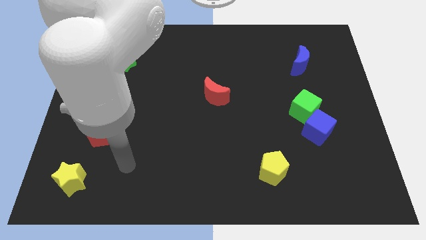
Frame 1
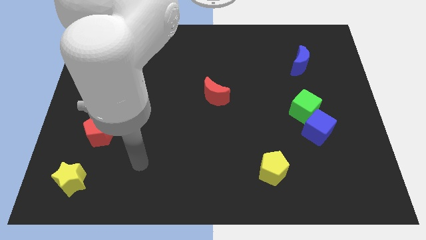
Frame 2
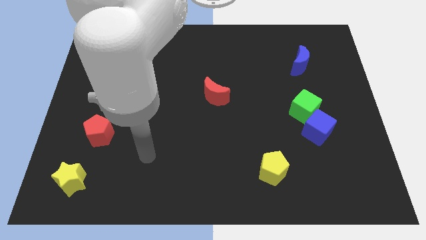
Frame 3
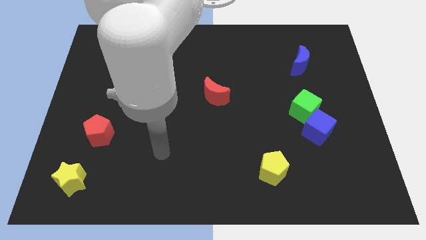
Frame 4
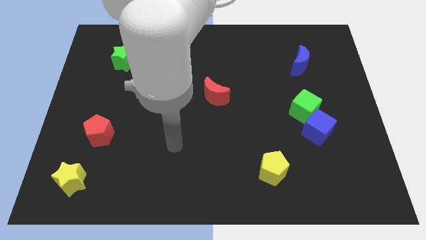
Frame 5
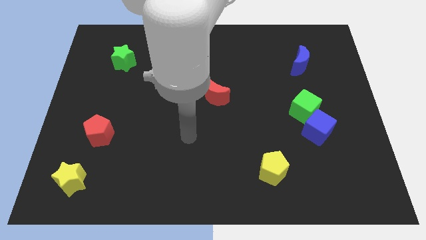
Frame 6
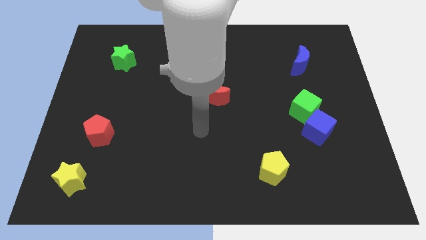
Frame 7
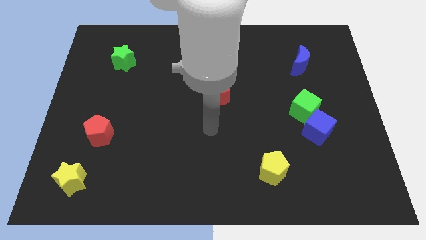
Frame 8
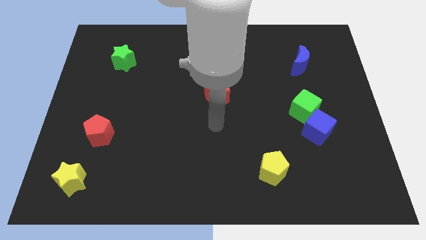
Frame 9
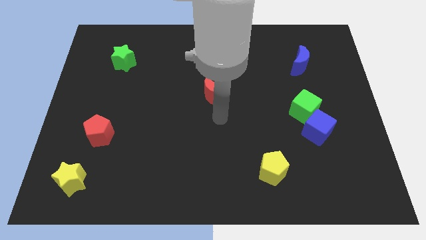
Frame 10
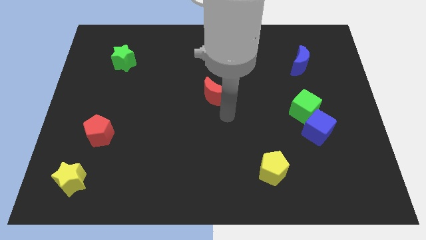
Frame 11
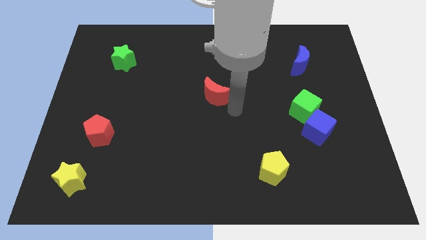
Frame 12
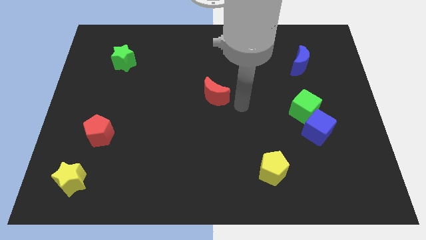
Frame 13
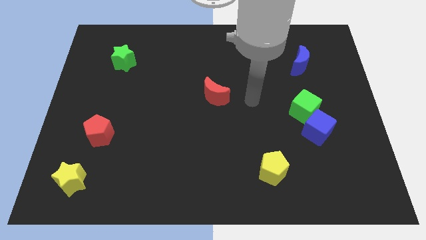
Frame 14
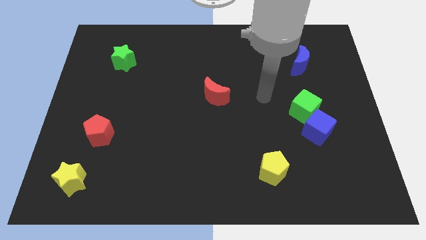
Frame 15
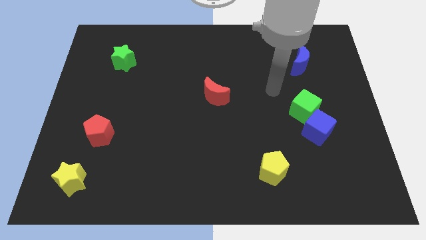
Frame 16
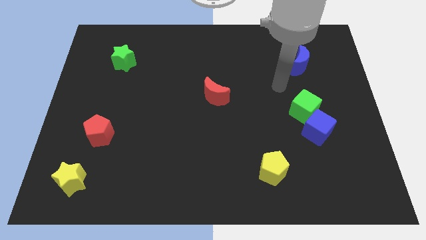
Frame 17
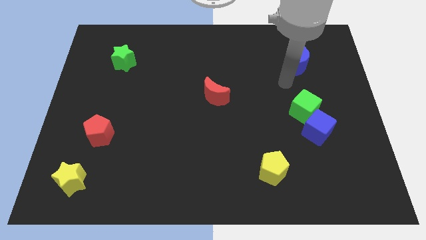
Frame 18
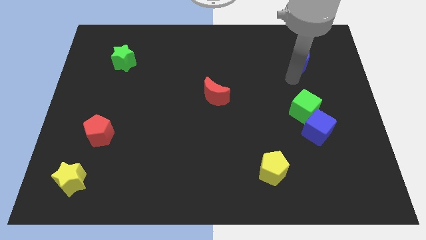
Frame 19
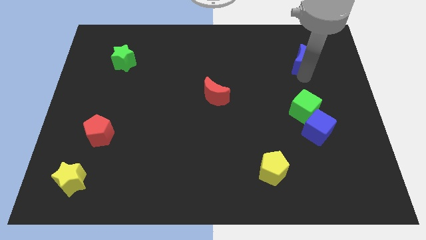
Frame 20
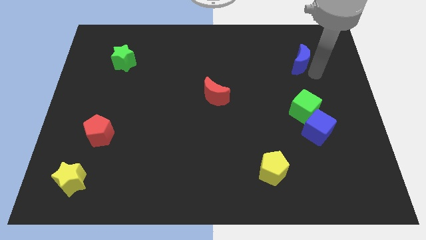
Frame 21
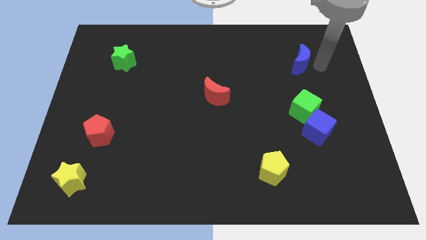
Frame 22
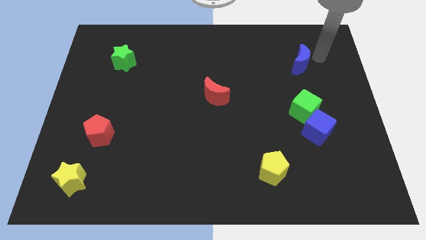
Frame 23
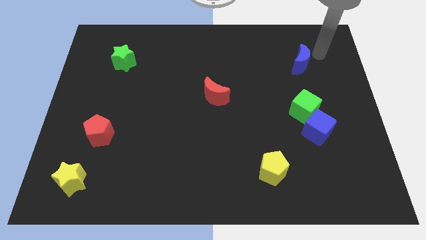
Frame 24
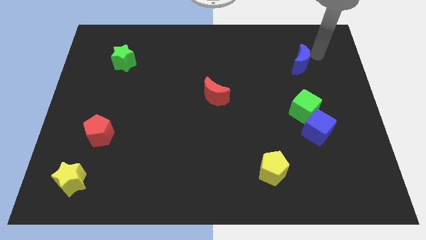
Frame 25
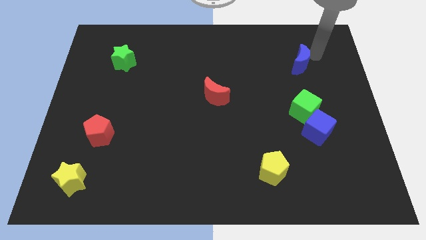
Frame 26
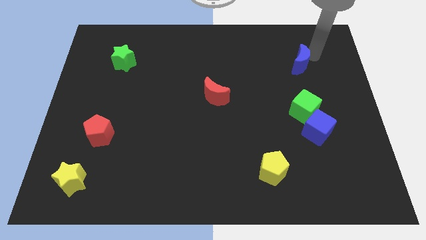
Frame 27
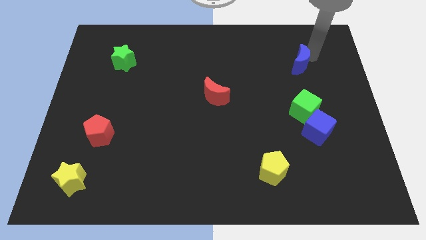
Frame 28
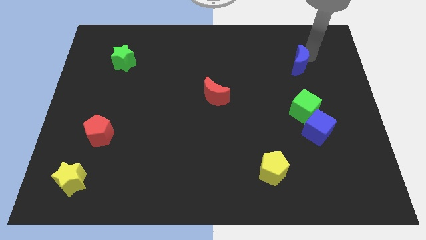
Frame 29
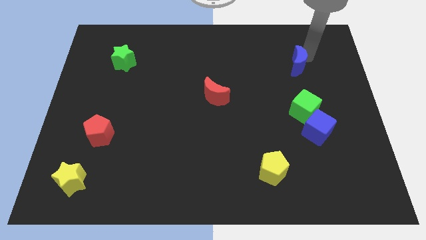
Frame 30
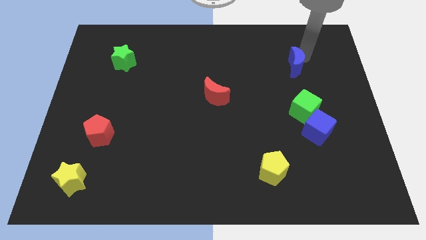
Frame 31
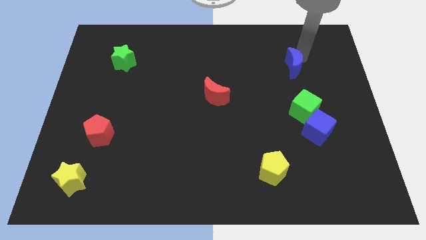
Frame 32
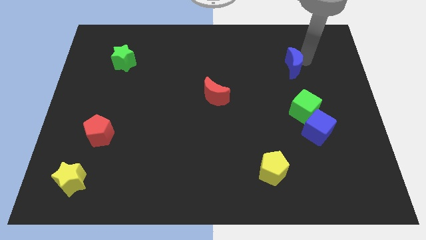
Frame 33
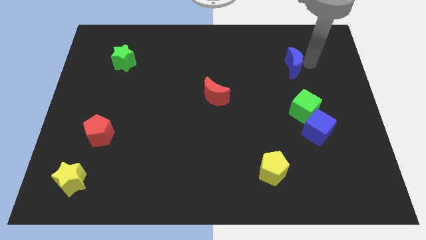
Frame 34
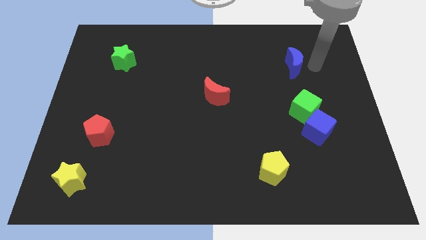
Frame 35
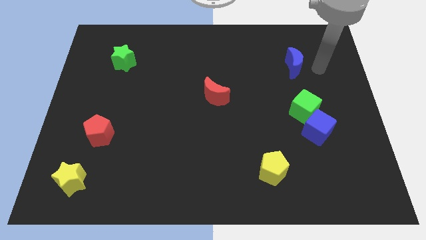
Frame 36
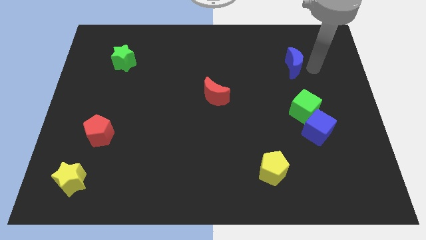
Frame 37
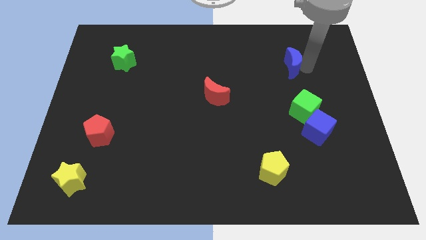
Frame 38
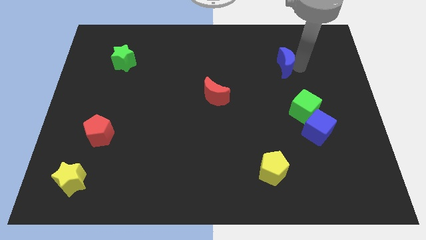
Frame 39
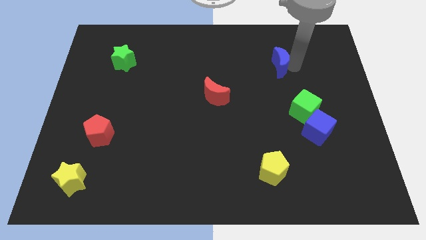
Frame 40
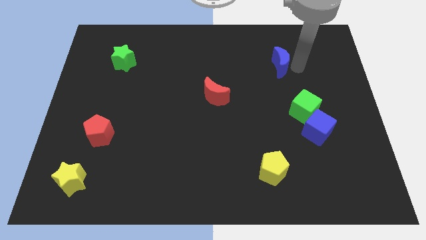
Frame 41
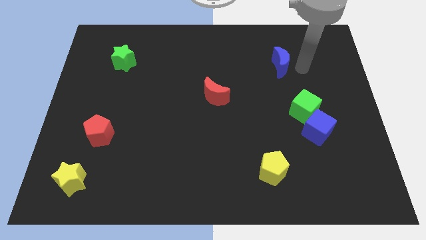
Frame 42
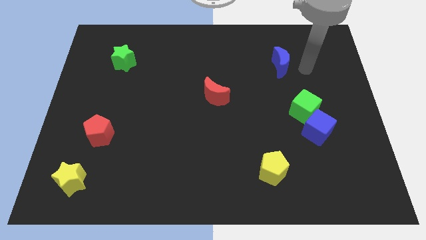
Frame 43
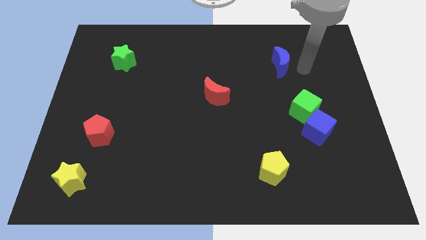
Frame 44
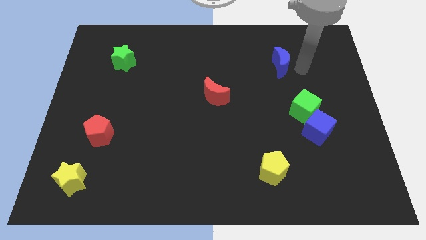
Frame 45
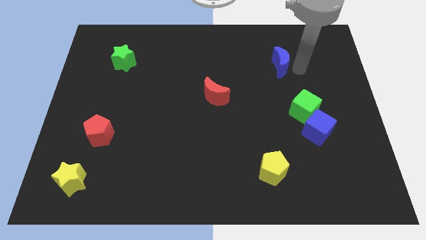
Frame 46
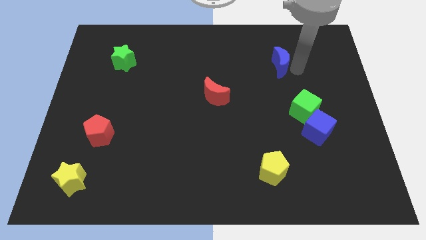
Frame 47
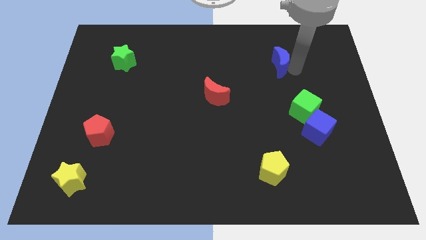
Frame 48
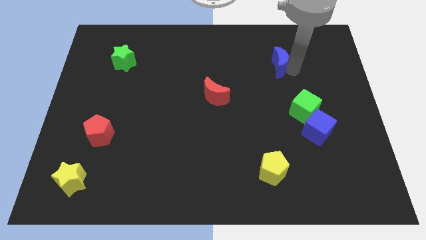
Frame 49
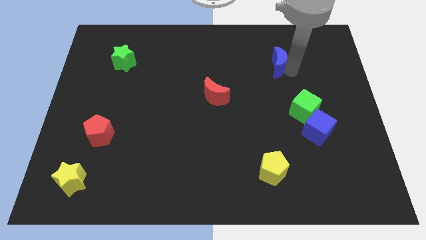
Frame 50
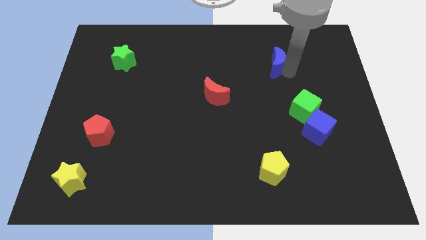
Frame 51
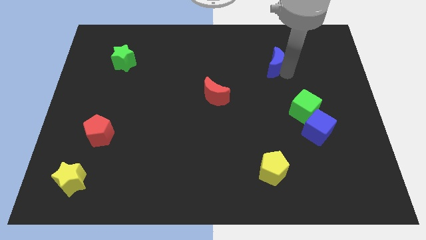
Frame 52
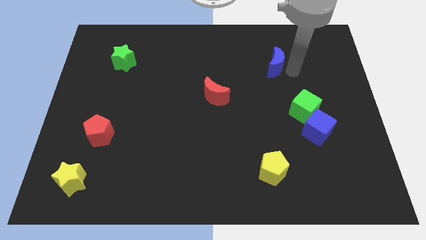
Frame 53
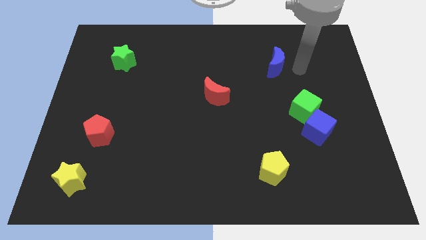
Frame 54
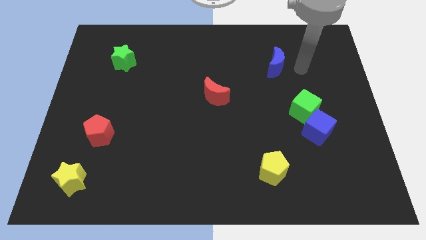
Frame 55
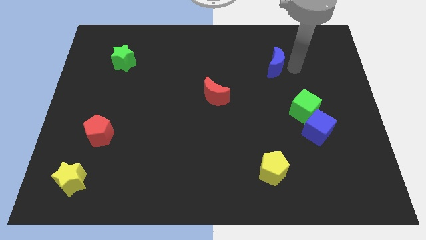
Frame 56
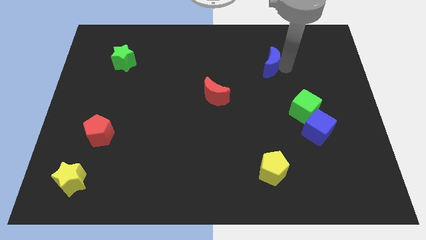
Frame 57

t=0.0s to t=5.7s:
slightly move the blue moon left

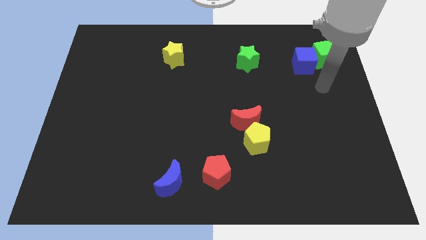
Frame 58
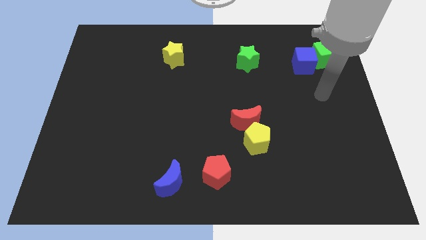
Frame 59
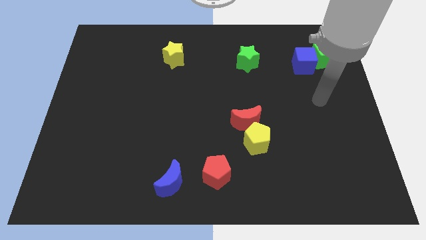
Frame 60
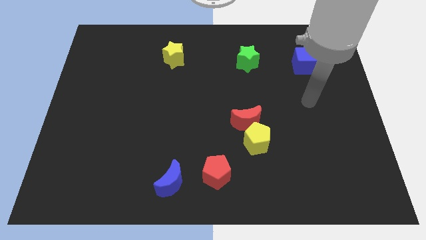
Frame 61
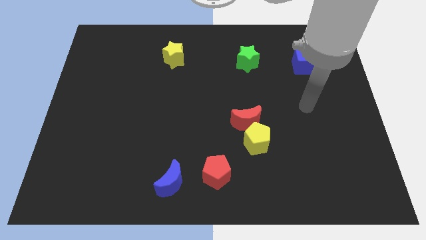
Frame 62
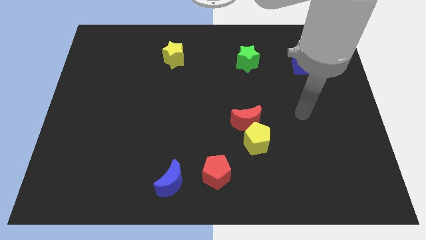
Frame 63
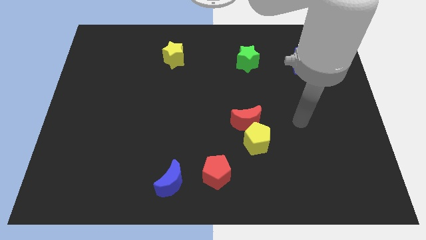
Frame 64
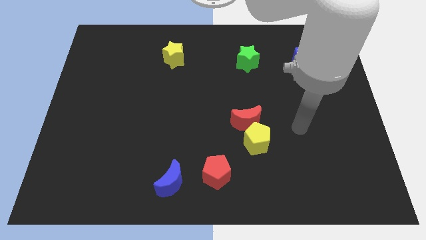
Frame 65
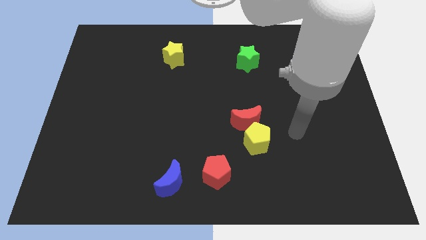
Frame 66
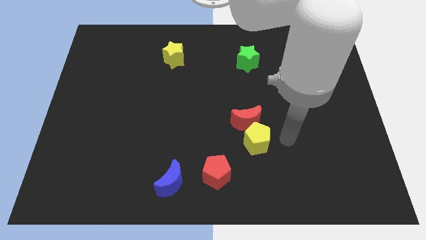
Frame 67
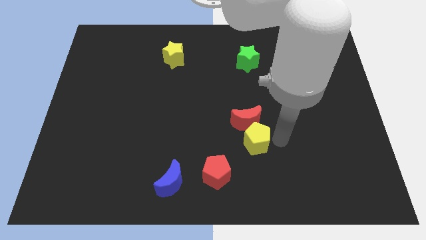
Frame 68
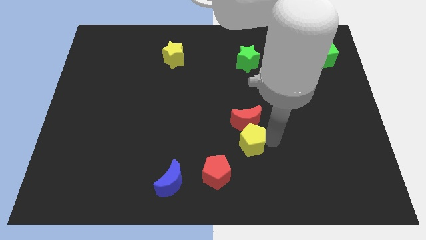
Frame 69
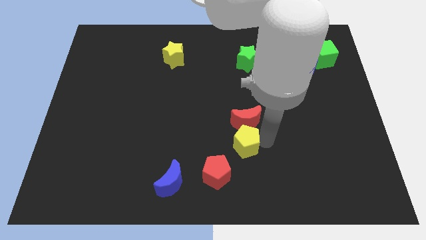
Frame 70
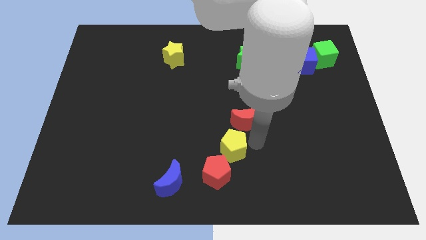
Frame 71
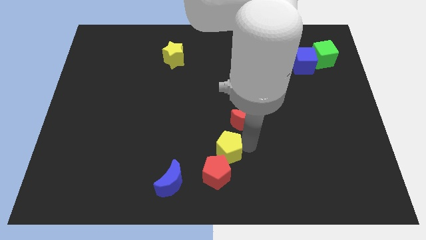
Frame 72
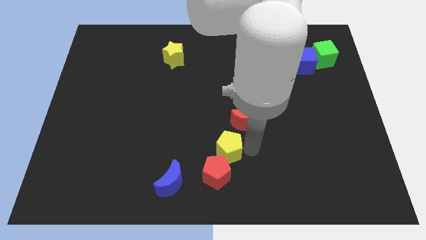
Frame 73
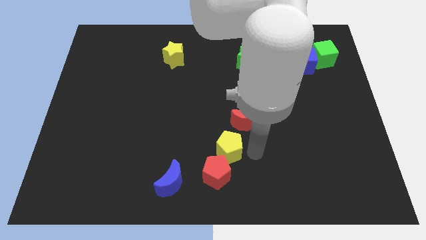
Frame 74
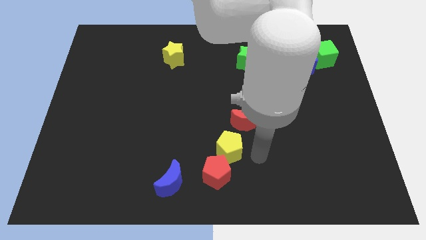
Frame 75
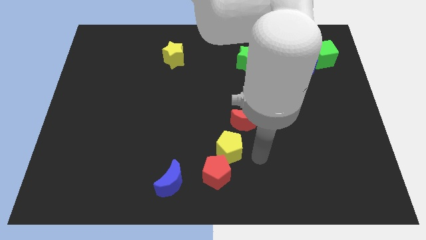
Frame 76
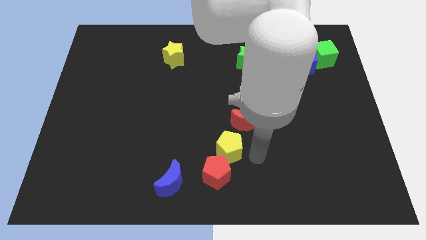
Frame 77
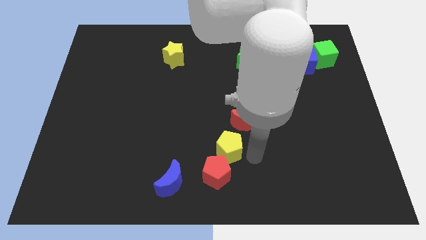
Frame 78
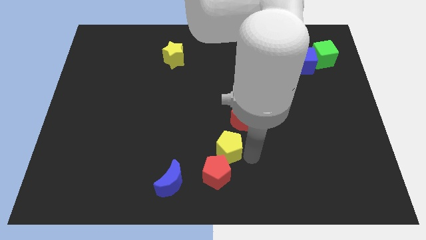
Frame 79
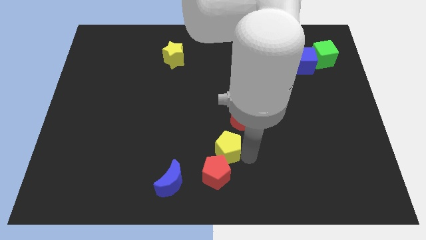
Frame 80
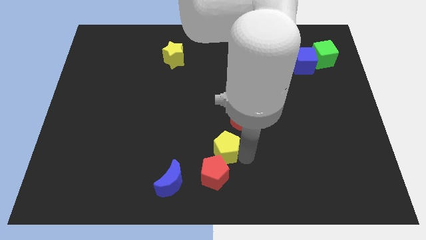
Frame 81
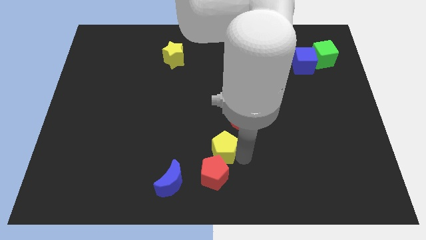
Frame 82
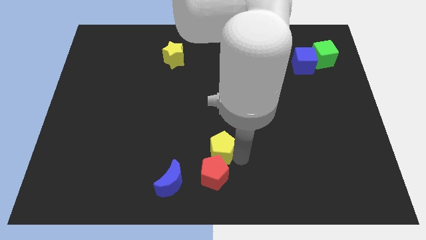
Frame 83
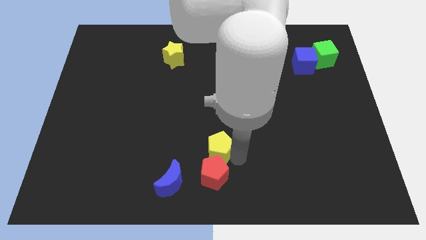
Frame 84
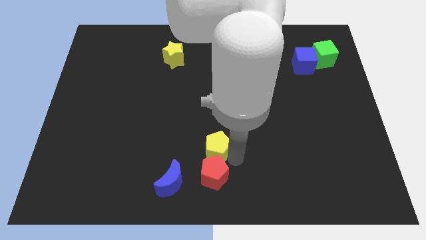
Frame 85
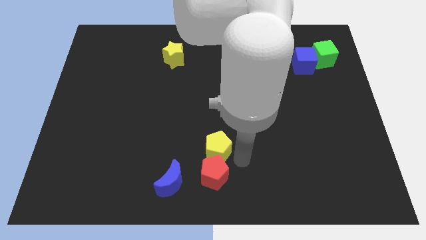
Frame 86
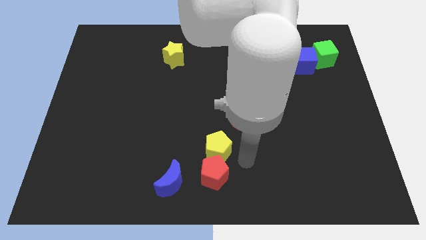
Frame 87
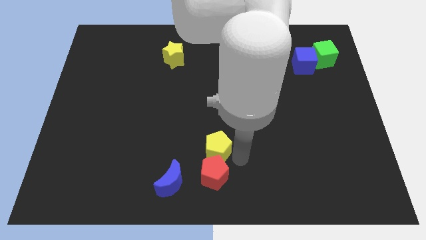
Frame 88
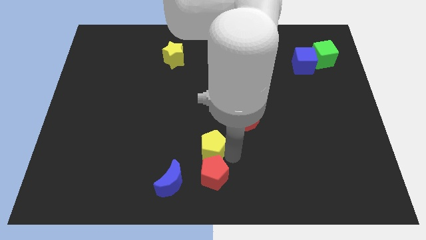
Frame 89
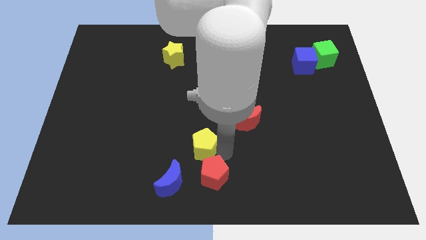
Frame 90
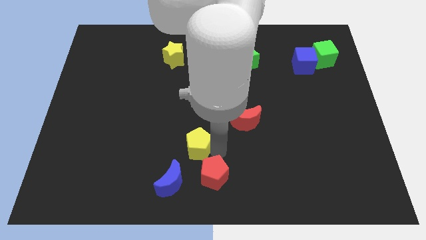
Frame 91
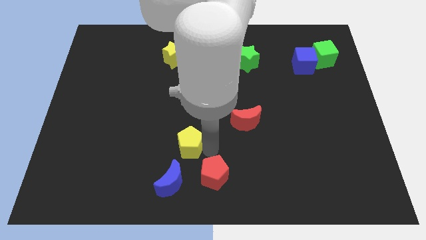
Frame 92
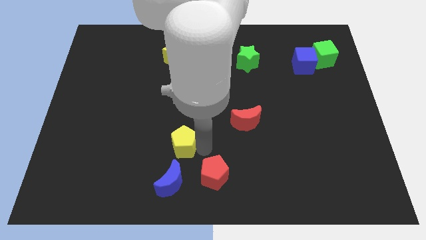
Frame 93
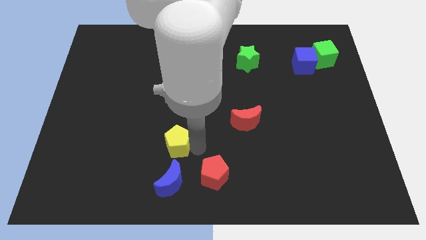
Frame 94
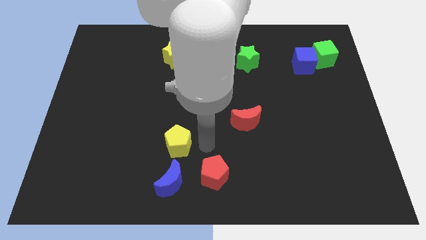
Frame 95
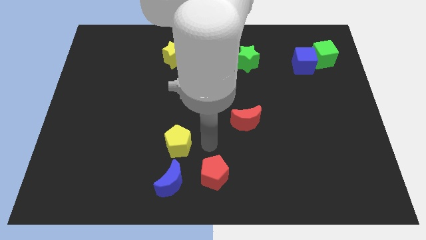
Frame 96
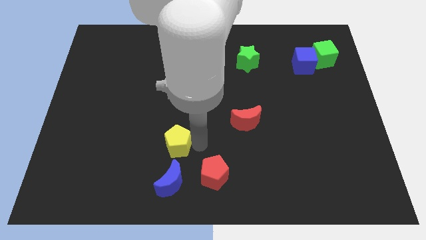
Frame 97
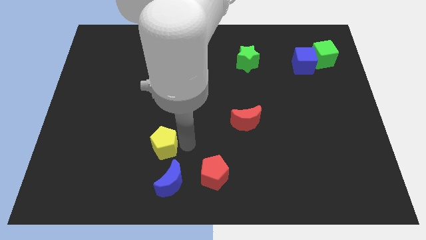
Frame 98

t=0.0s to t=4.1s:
push the yellow pentagon to the left
